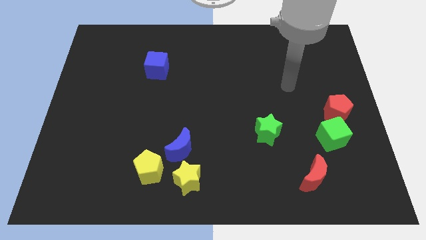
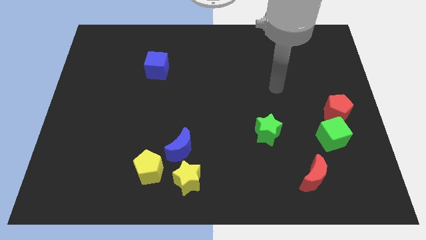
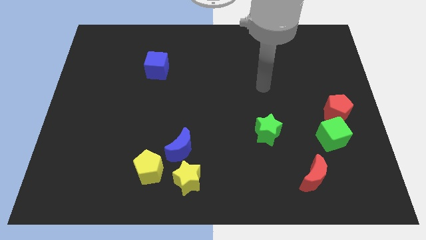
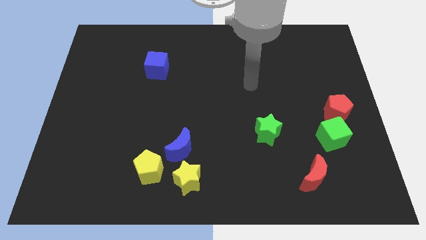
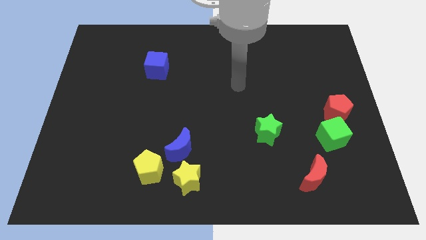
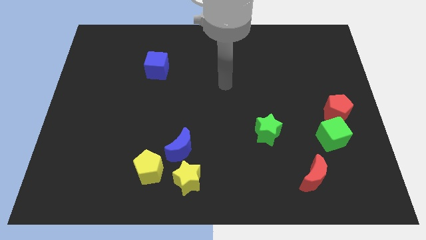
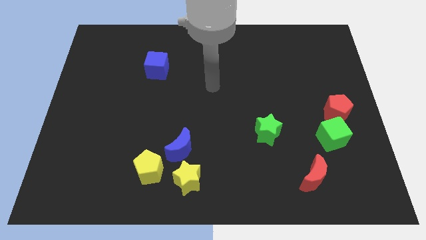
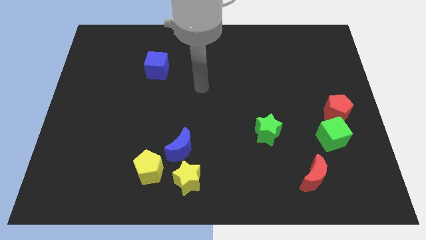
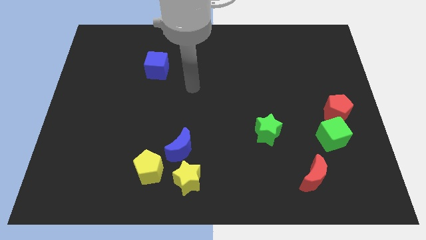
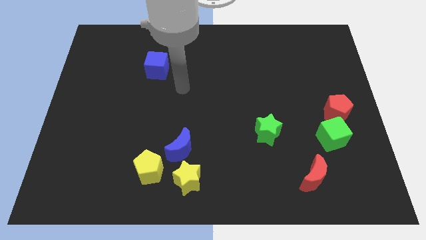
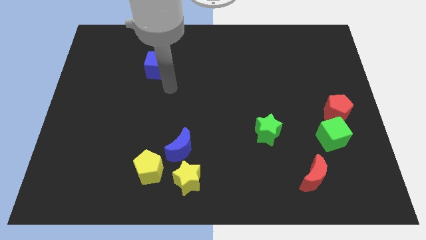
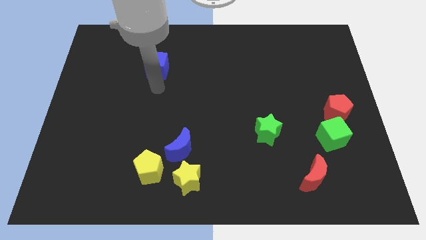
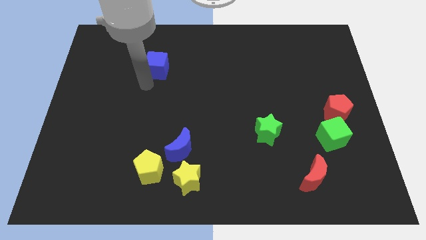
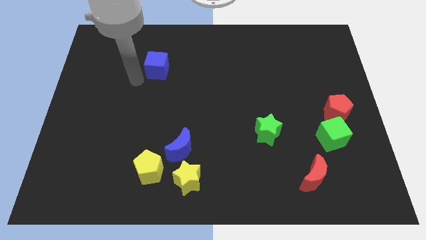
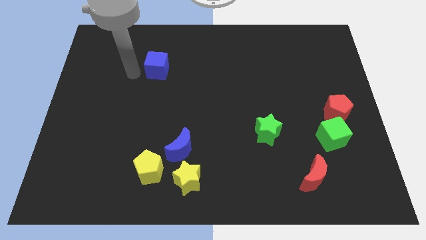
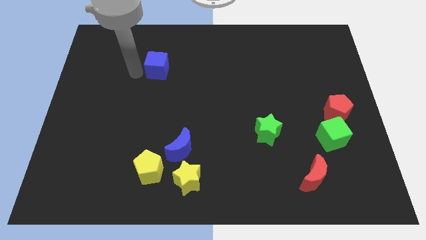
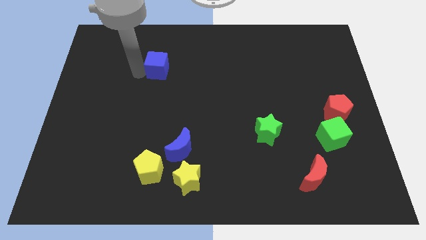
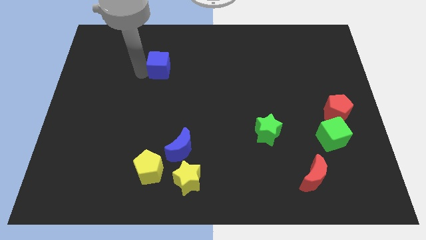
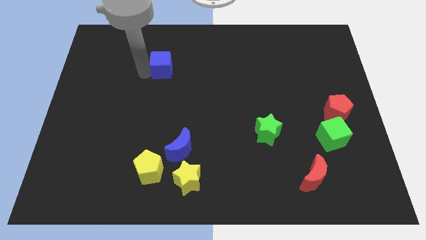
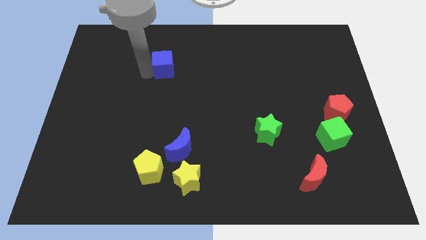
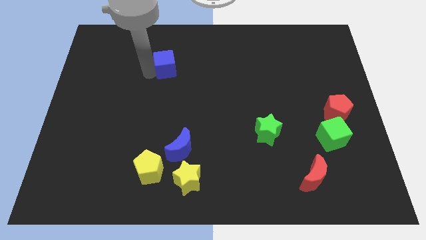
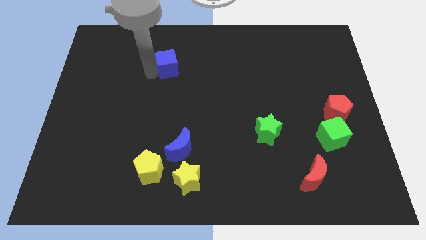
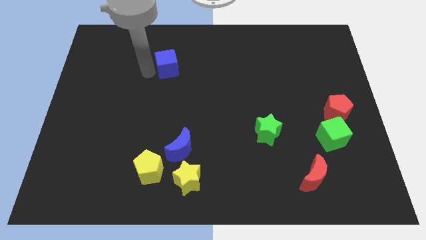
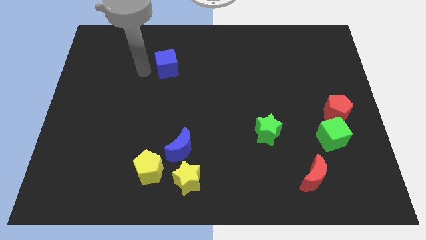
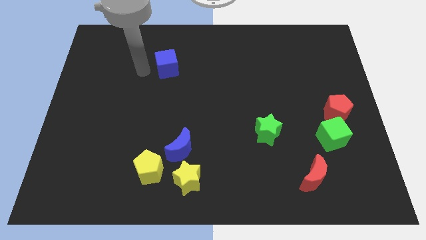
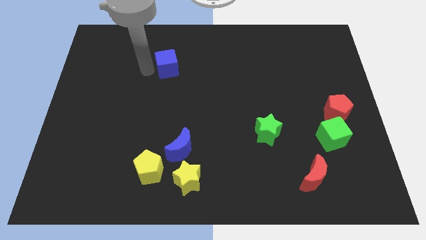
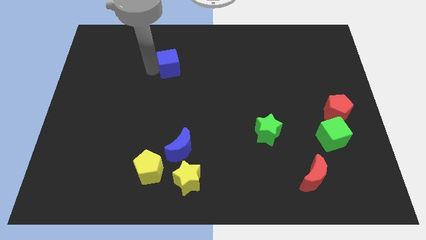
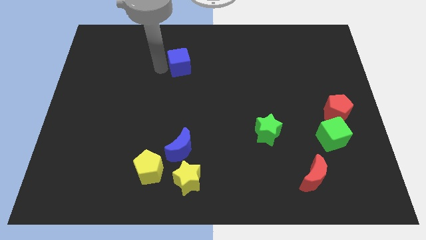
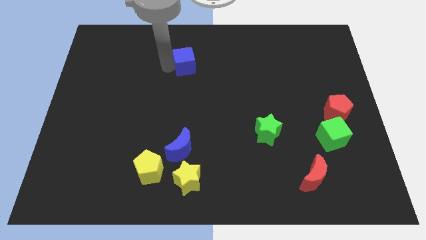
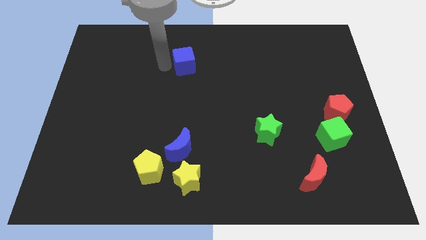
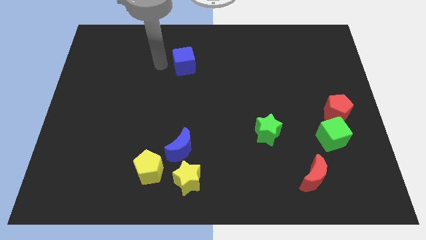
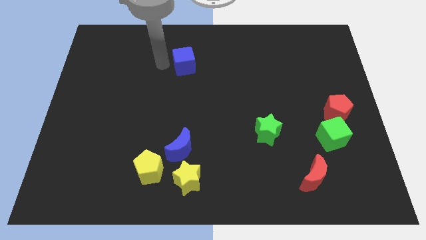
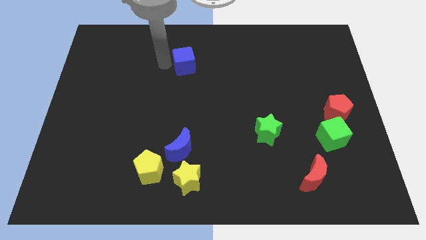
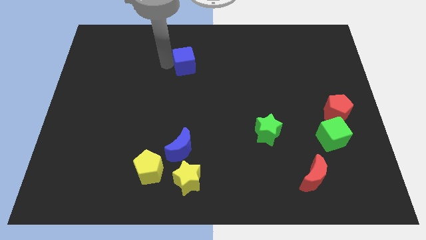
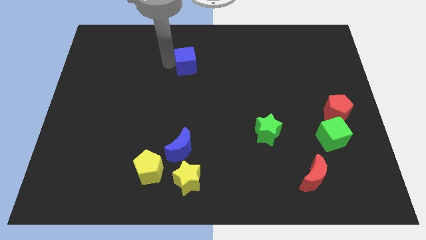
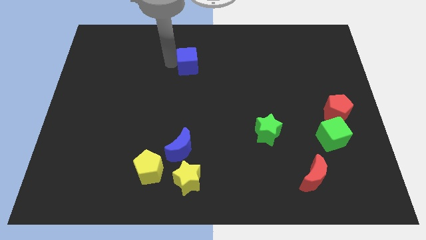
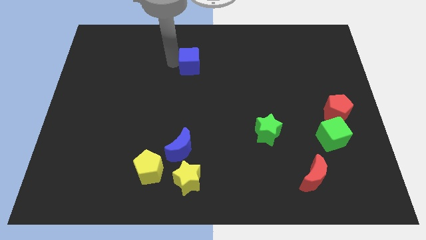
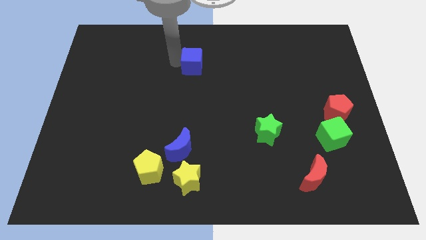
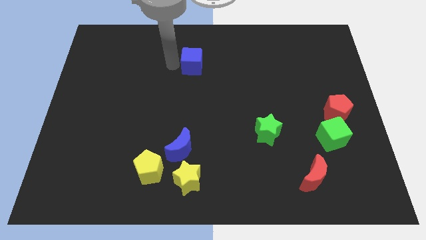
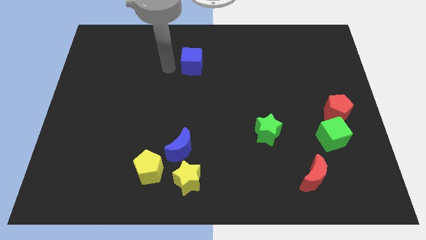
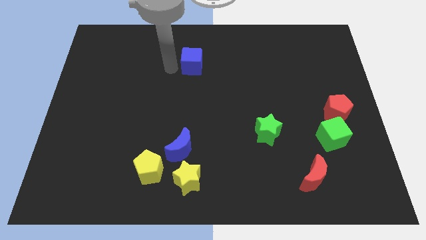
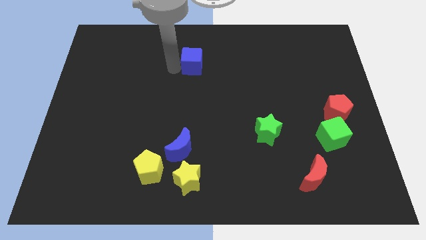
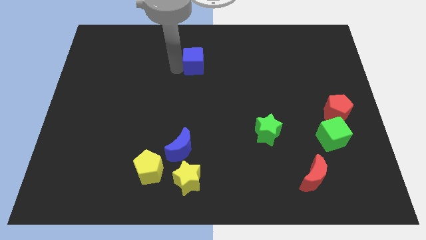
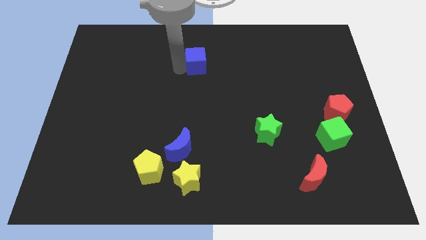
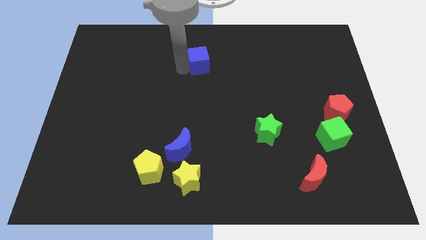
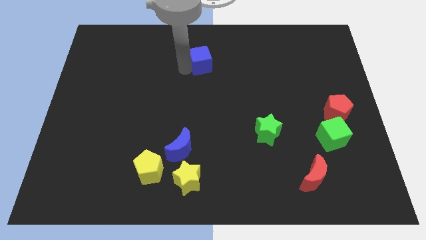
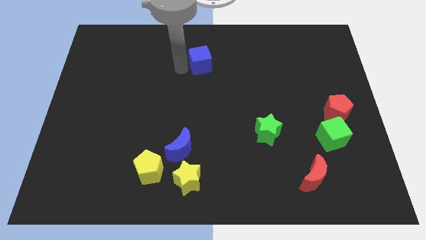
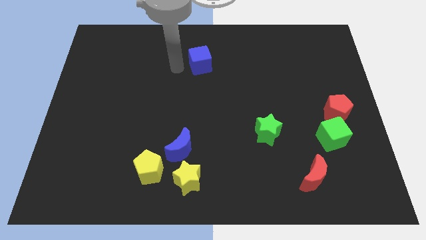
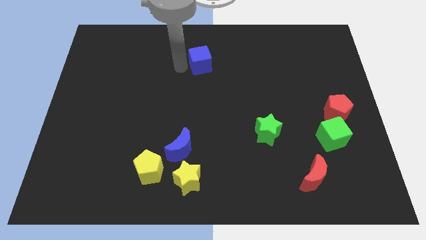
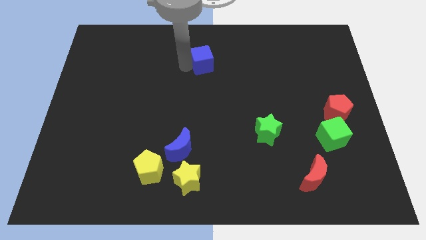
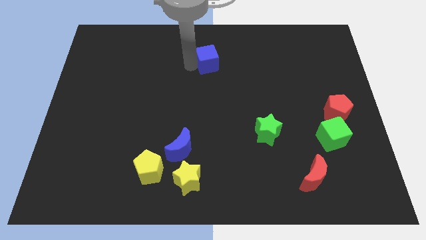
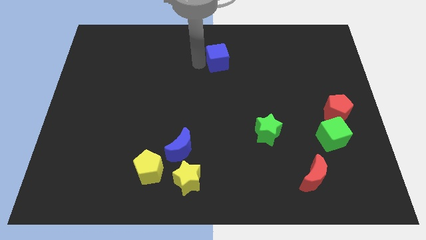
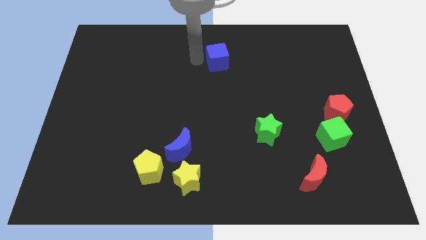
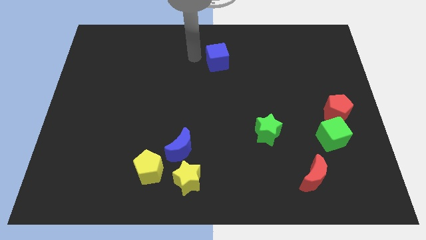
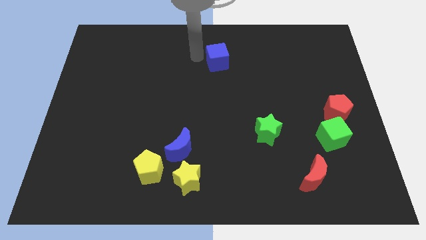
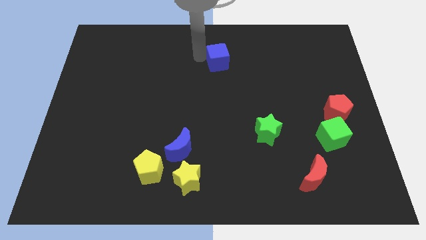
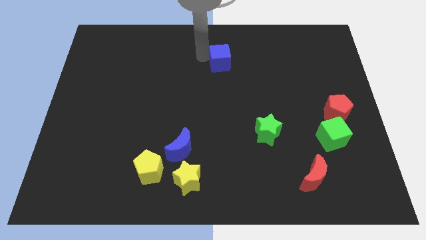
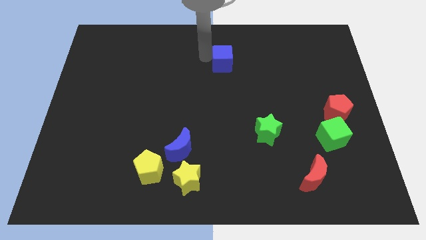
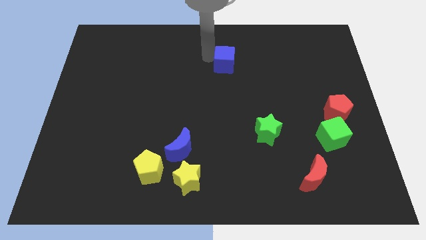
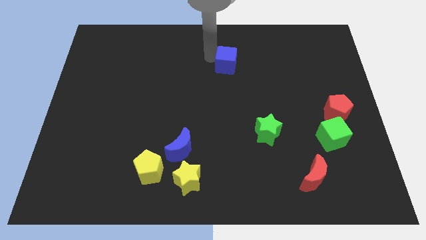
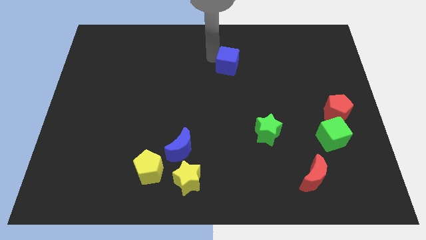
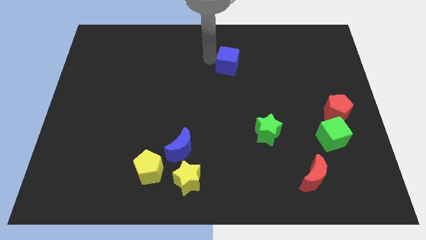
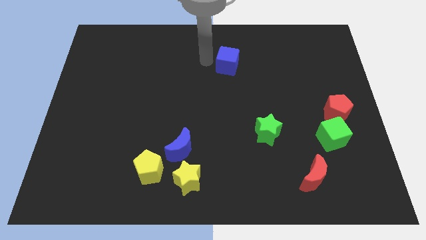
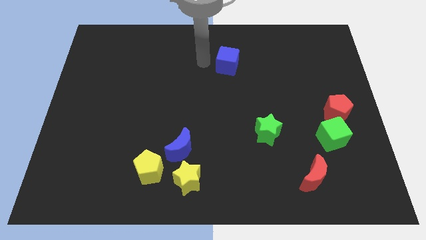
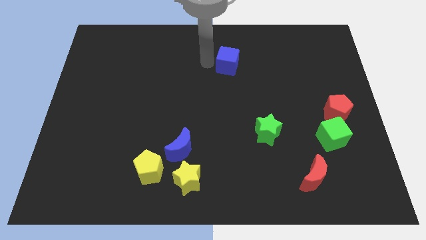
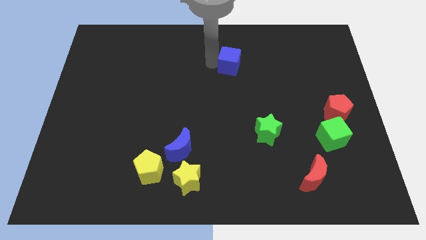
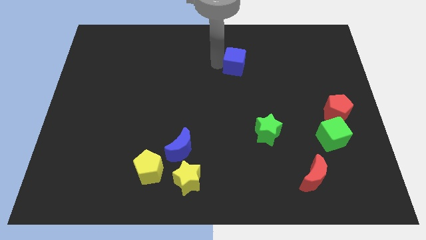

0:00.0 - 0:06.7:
slide the blue cube right

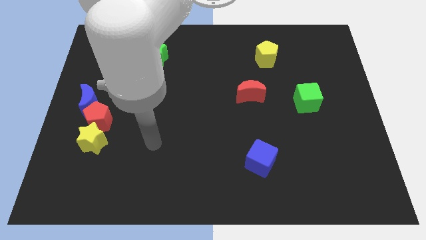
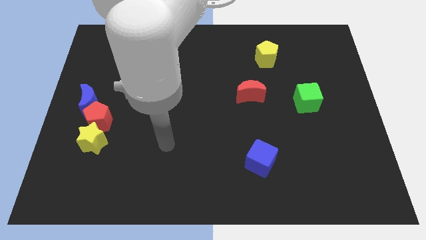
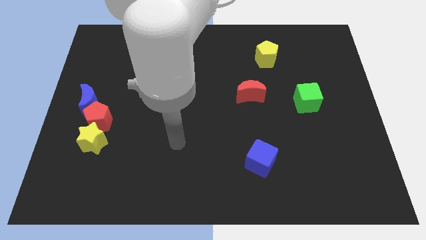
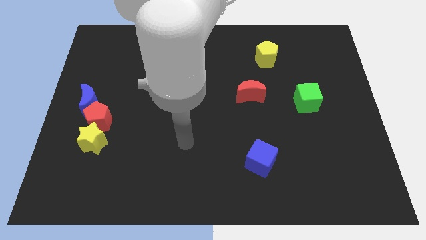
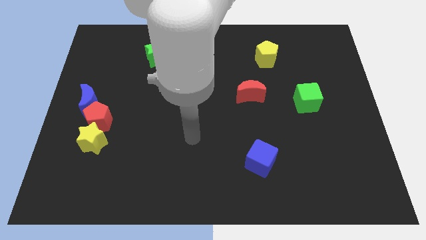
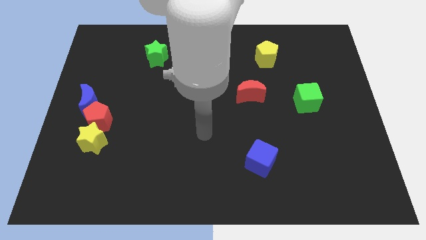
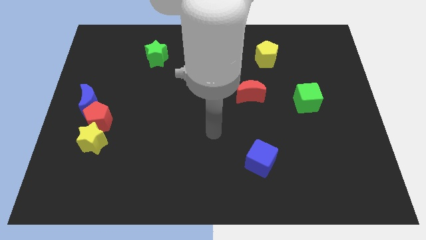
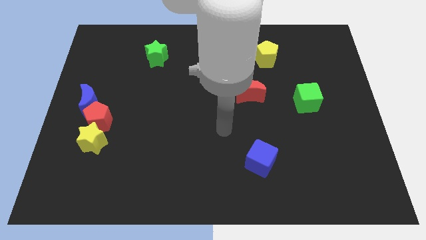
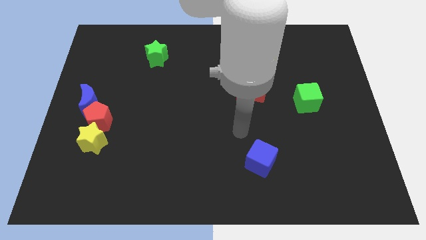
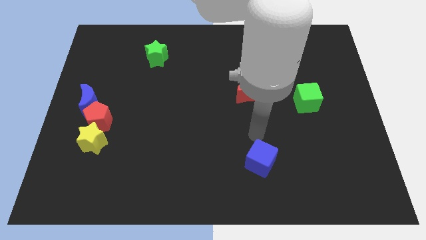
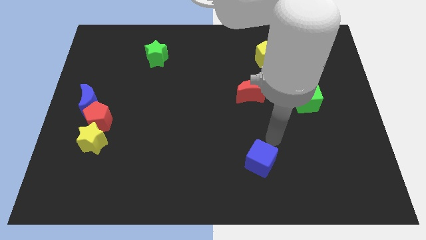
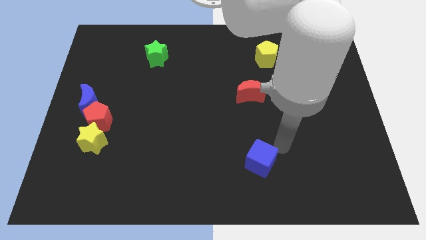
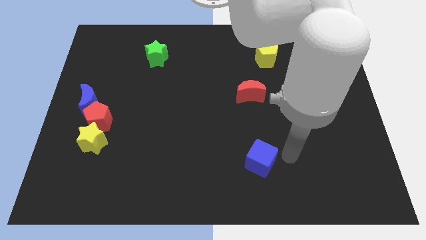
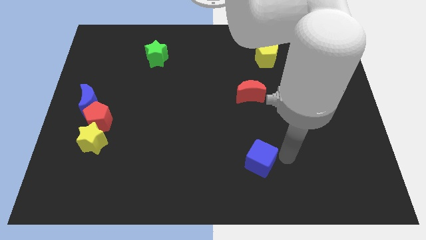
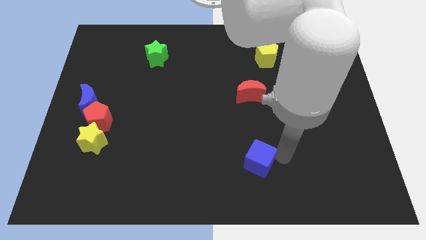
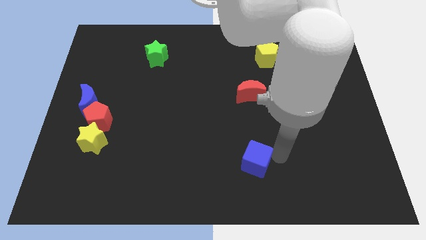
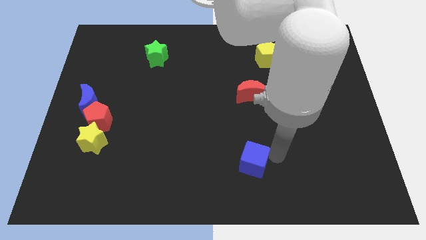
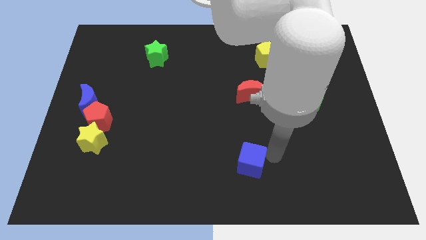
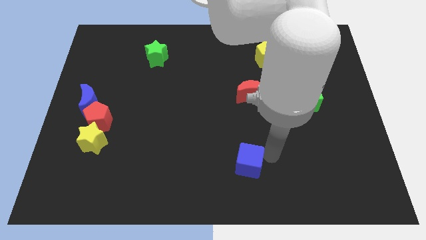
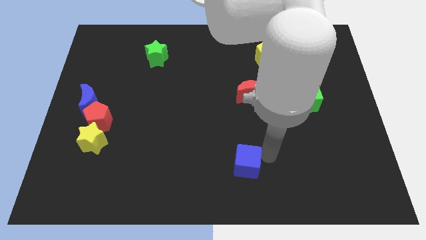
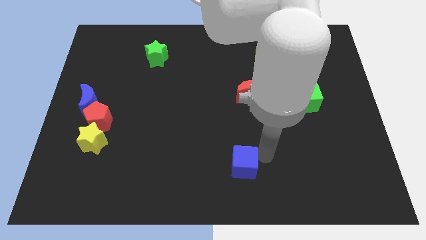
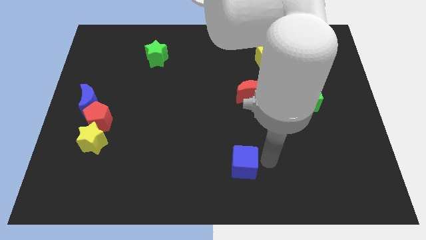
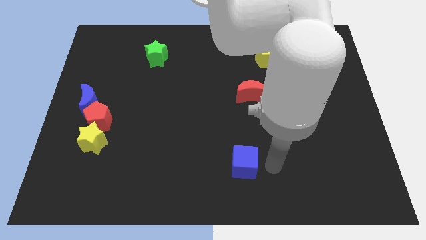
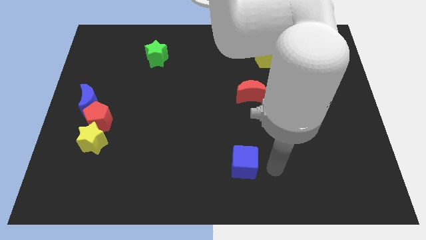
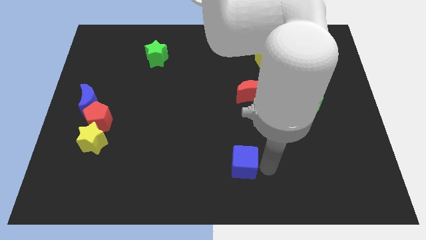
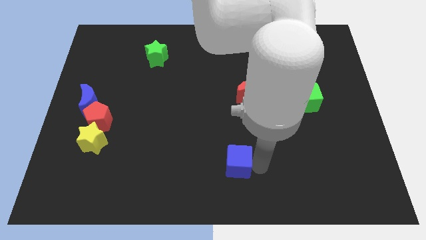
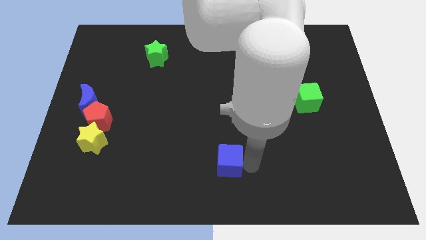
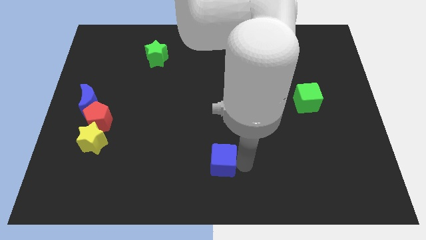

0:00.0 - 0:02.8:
move the blue cube a little bit to the left
